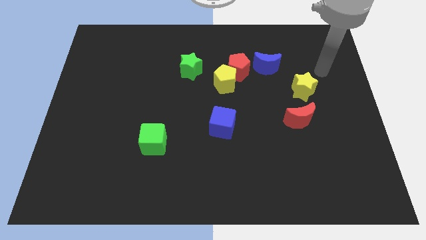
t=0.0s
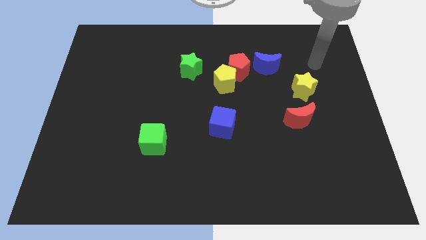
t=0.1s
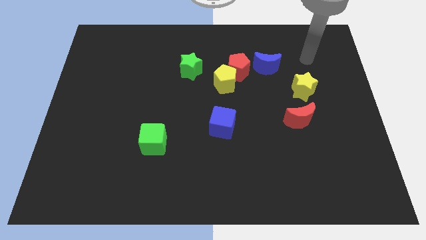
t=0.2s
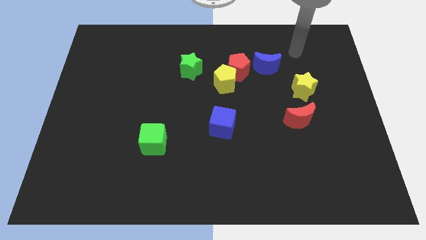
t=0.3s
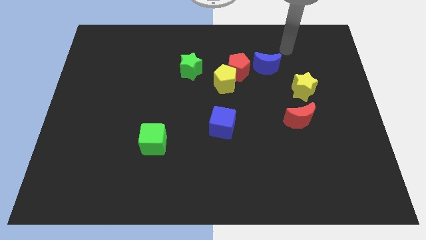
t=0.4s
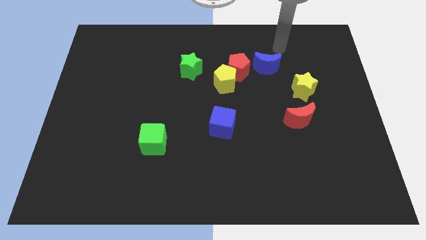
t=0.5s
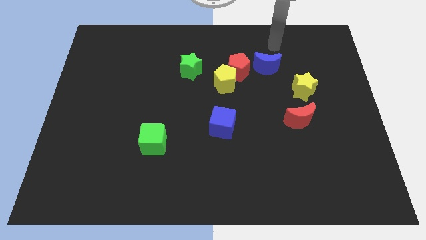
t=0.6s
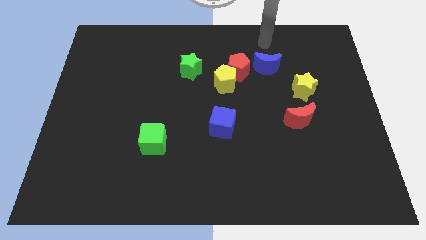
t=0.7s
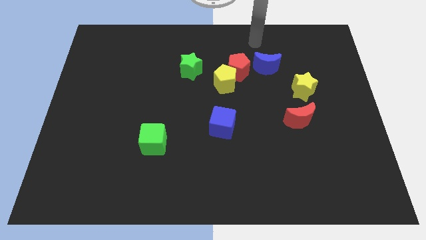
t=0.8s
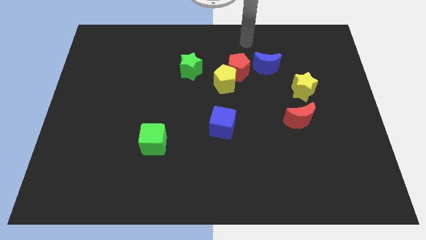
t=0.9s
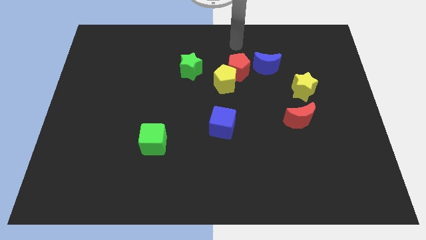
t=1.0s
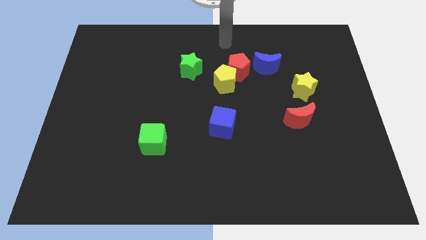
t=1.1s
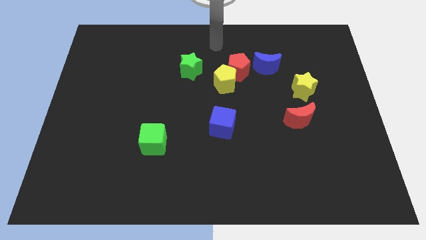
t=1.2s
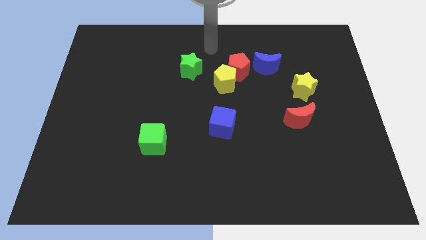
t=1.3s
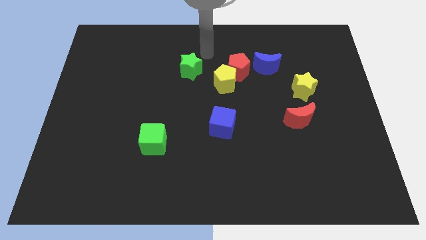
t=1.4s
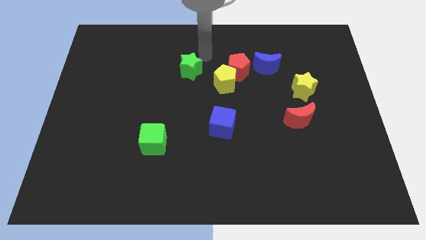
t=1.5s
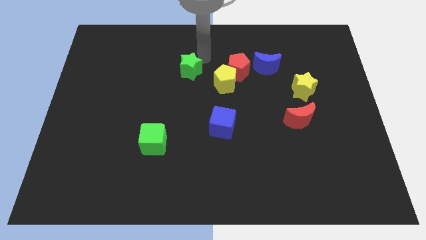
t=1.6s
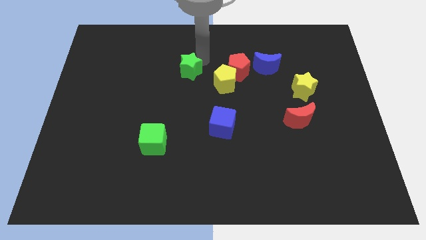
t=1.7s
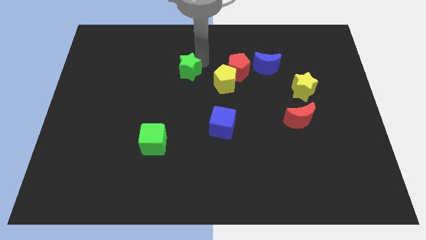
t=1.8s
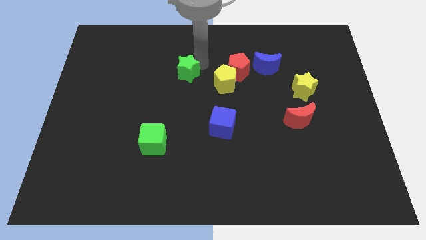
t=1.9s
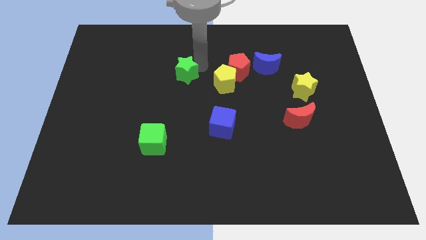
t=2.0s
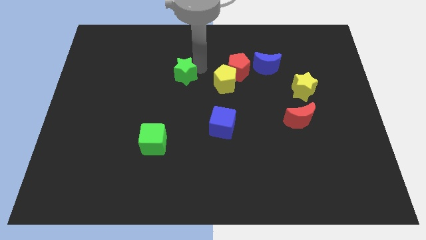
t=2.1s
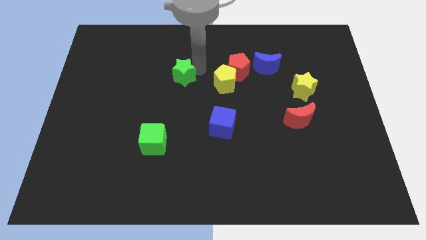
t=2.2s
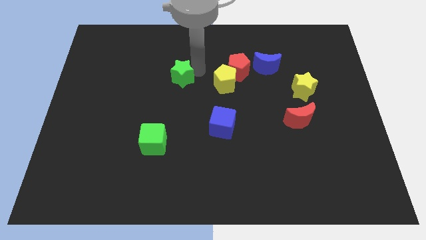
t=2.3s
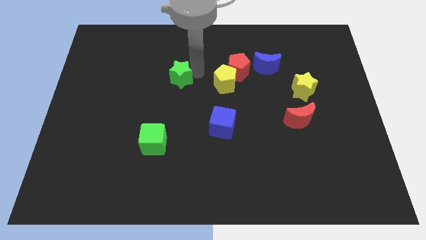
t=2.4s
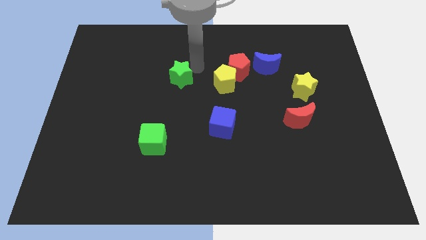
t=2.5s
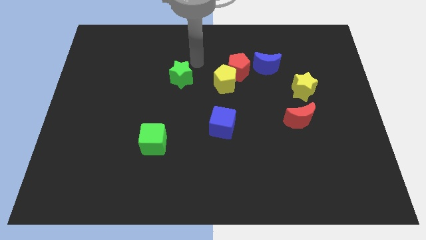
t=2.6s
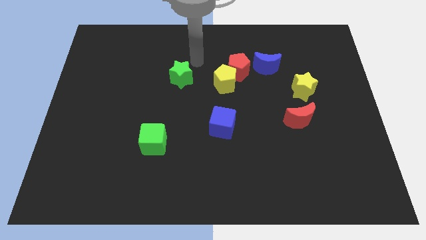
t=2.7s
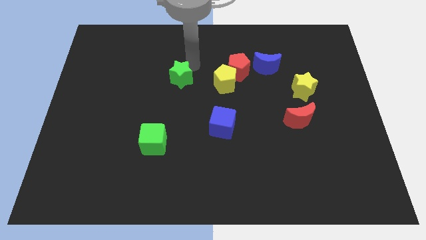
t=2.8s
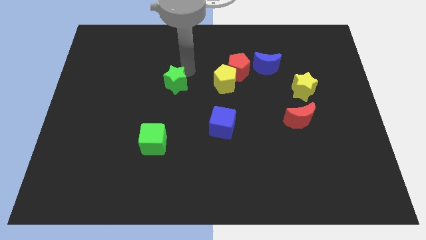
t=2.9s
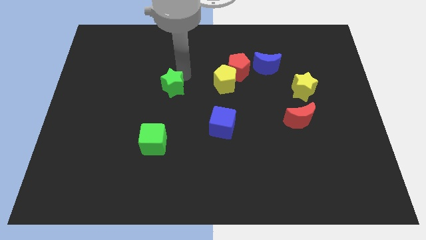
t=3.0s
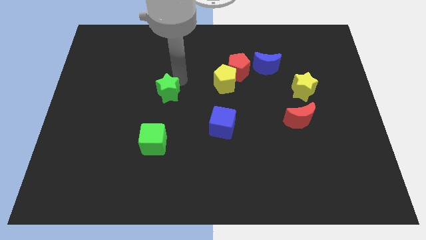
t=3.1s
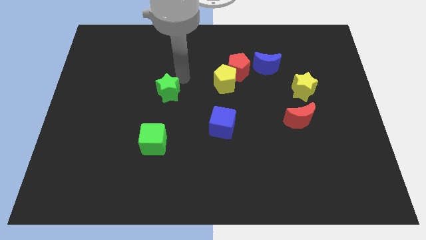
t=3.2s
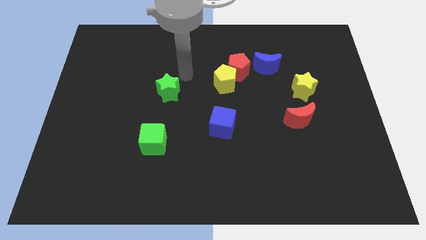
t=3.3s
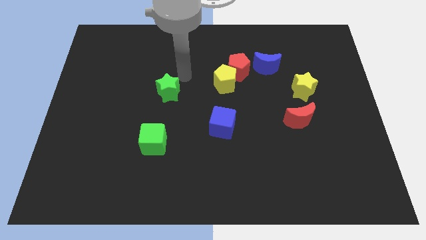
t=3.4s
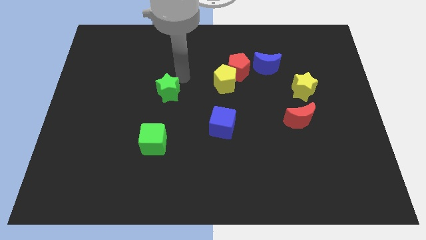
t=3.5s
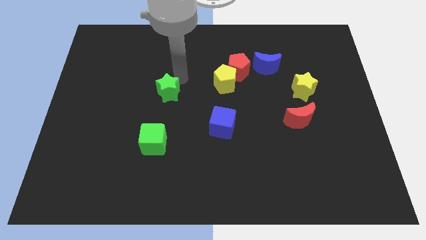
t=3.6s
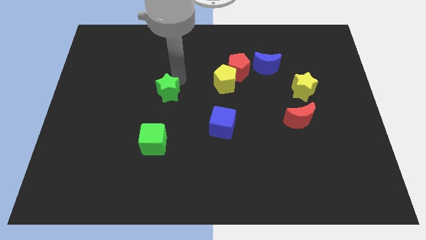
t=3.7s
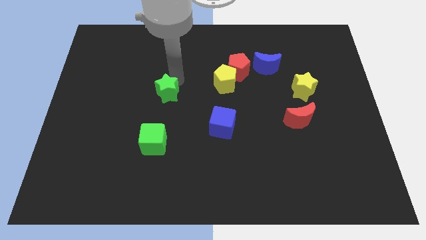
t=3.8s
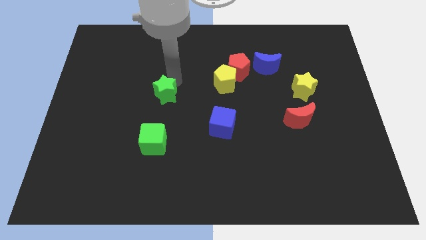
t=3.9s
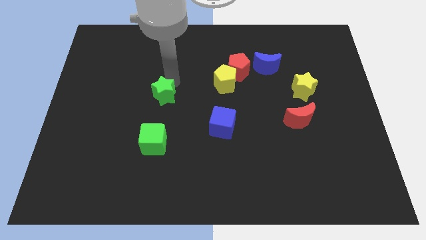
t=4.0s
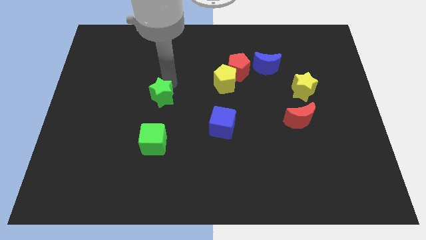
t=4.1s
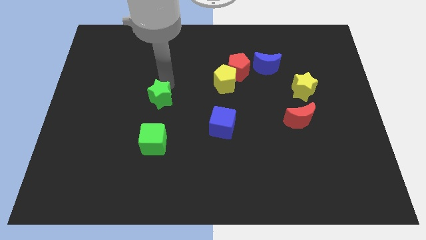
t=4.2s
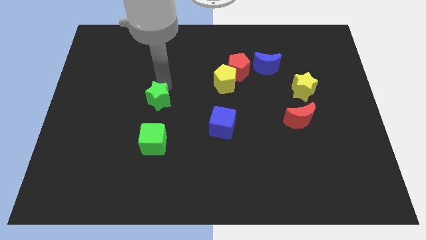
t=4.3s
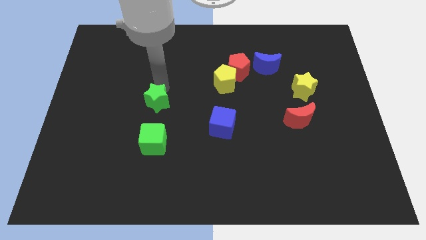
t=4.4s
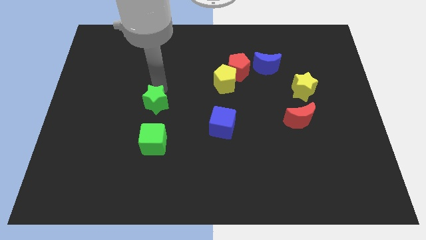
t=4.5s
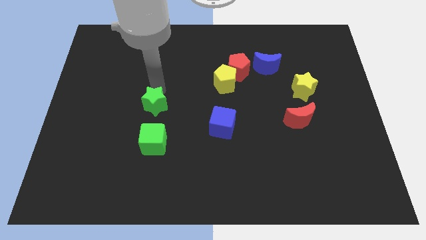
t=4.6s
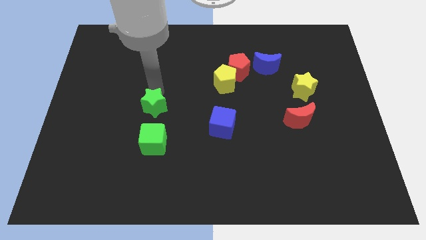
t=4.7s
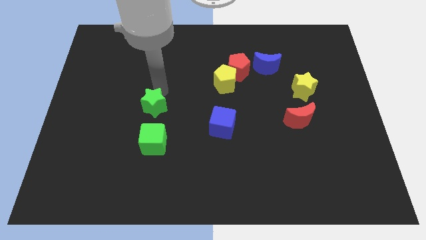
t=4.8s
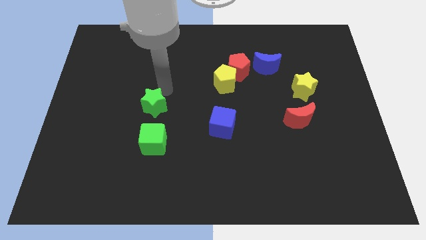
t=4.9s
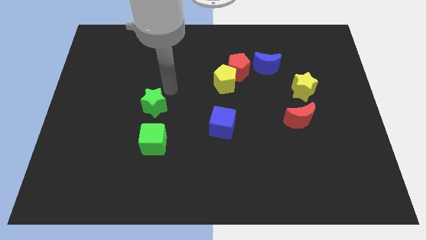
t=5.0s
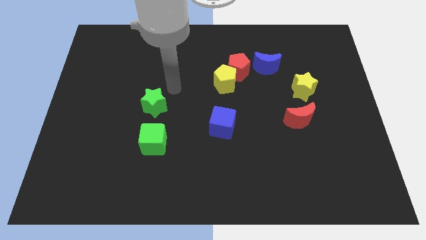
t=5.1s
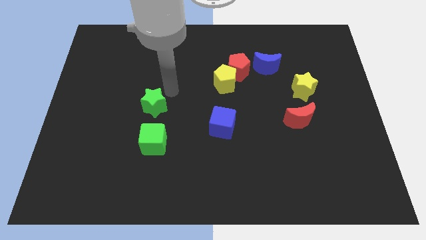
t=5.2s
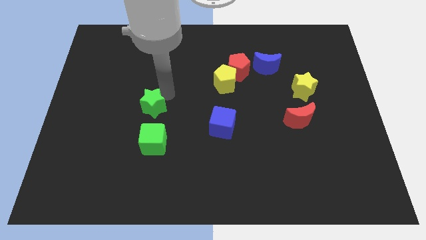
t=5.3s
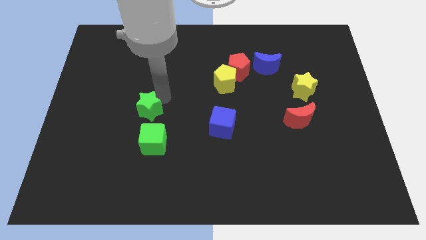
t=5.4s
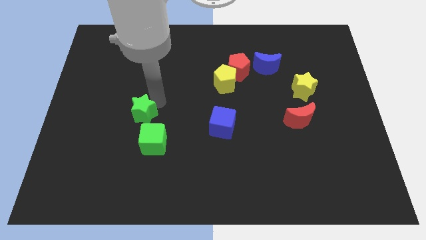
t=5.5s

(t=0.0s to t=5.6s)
move the green star to the top left side of the green cube

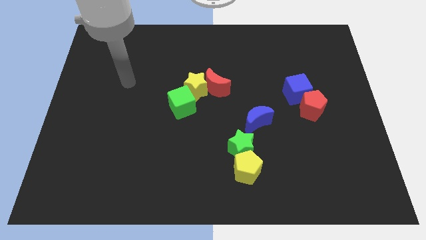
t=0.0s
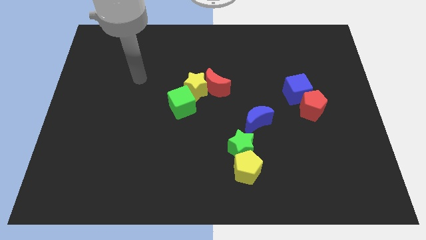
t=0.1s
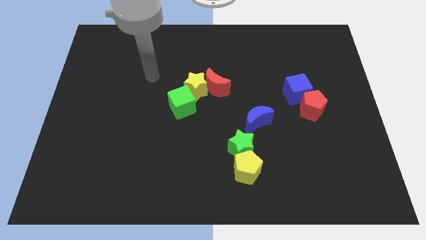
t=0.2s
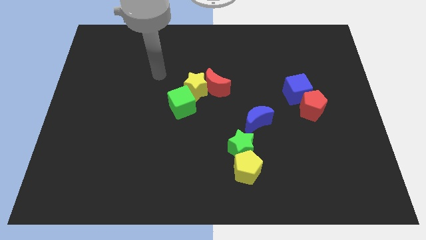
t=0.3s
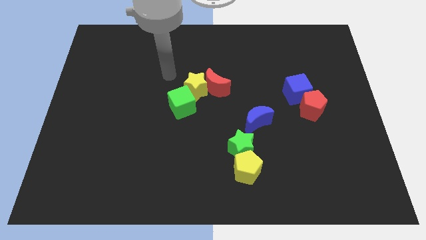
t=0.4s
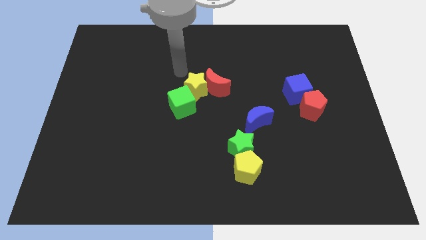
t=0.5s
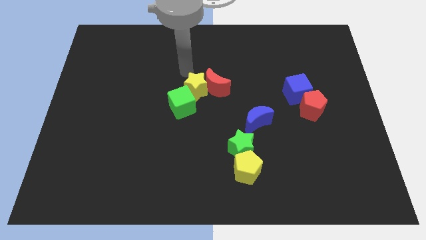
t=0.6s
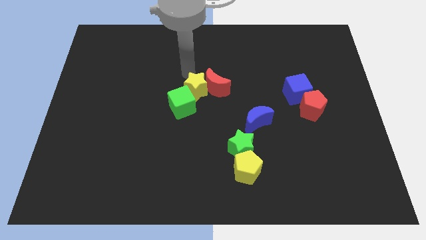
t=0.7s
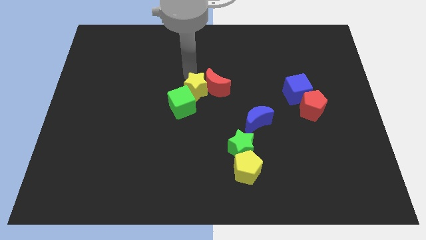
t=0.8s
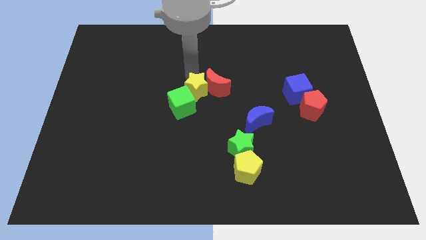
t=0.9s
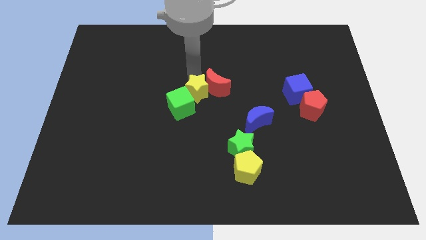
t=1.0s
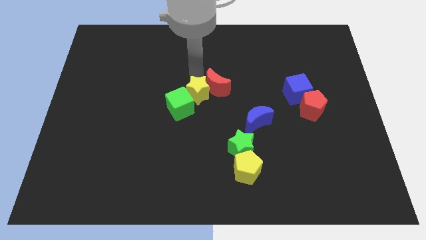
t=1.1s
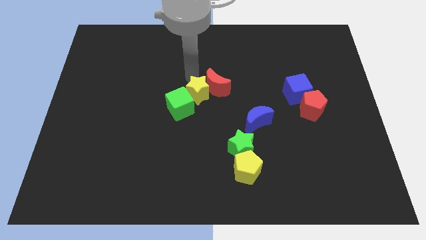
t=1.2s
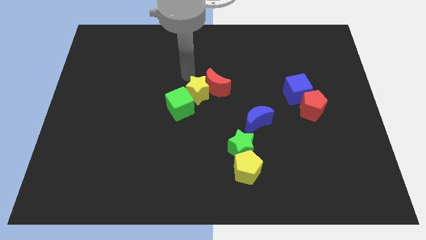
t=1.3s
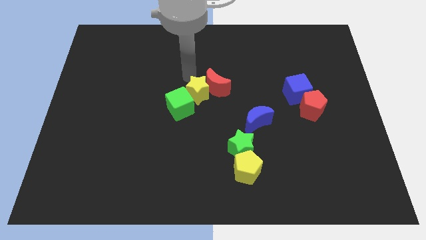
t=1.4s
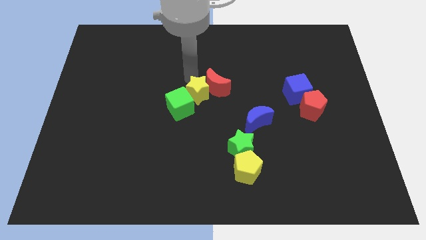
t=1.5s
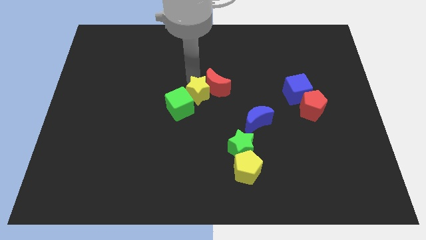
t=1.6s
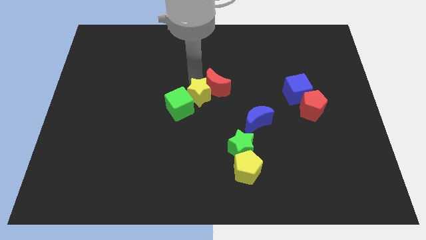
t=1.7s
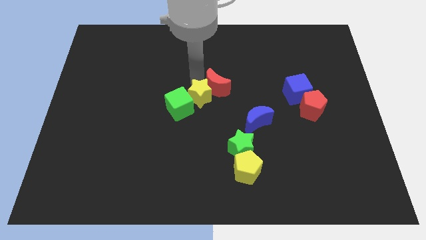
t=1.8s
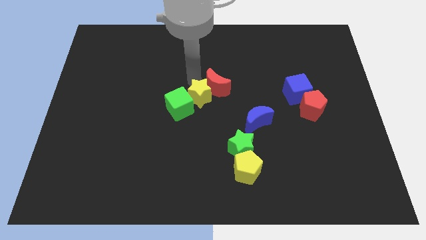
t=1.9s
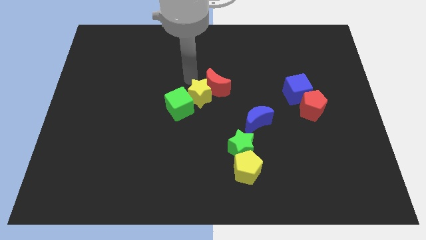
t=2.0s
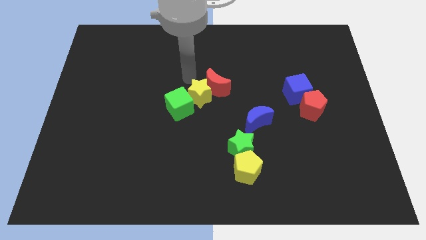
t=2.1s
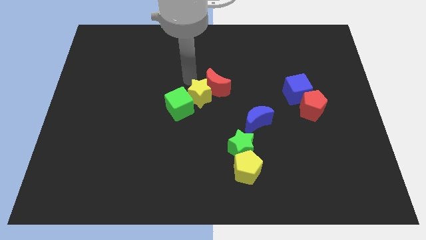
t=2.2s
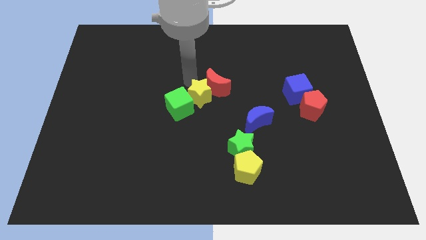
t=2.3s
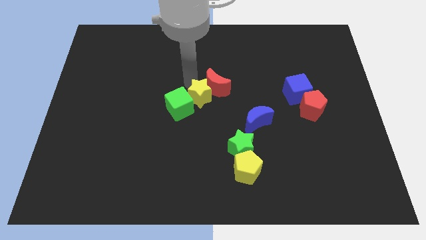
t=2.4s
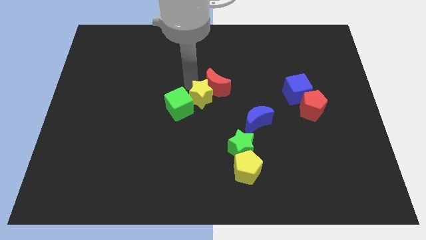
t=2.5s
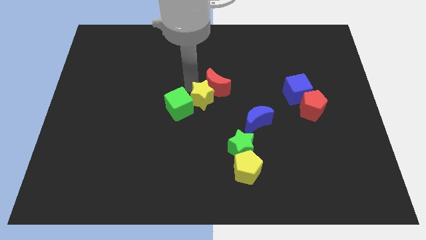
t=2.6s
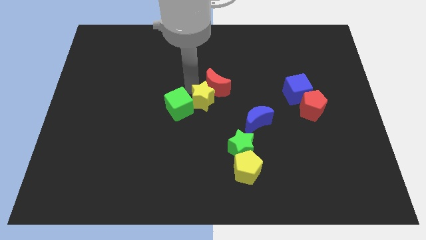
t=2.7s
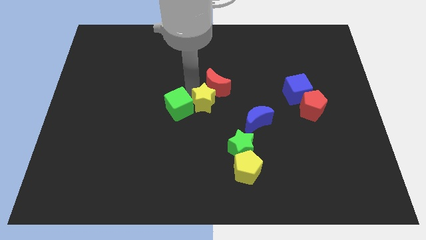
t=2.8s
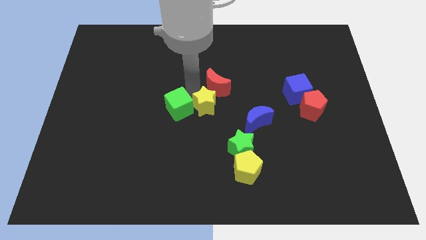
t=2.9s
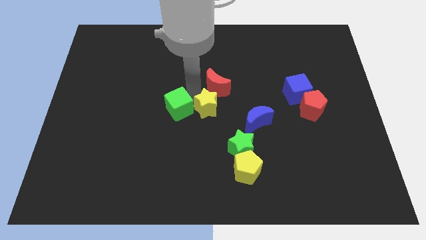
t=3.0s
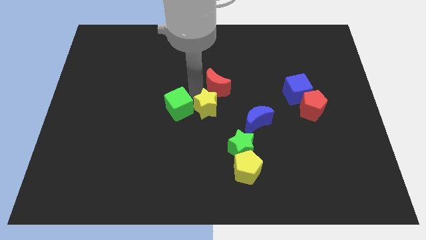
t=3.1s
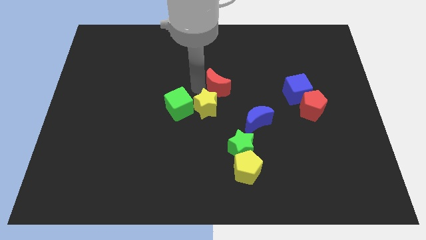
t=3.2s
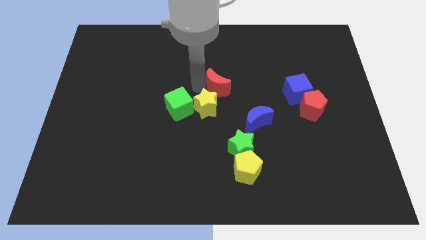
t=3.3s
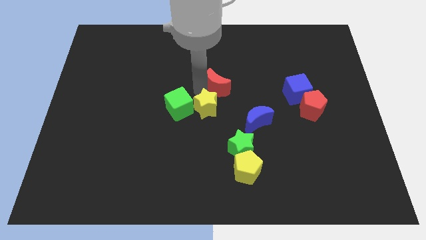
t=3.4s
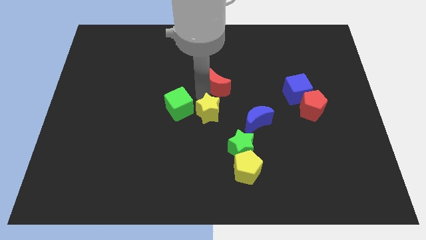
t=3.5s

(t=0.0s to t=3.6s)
push the yellow star diagonally up and to the left of the green star
